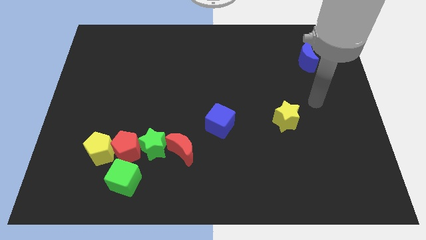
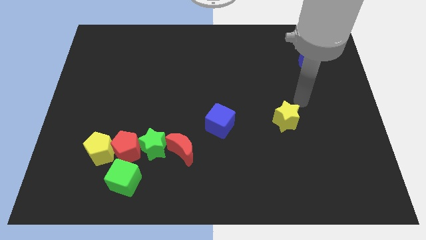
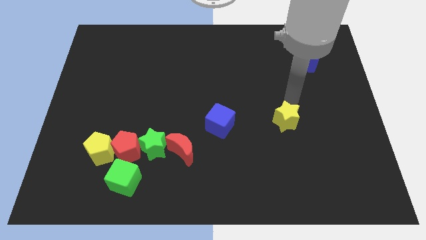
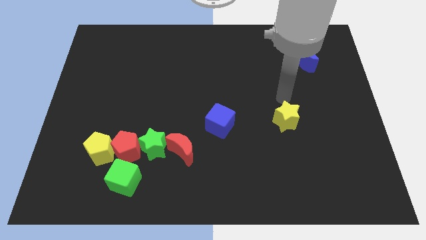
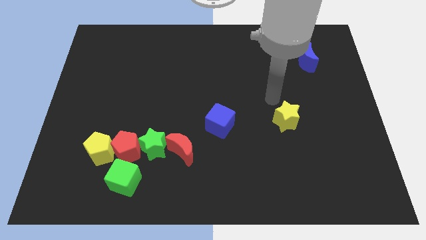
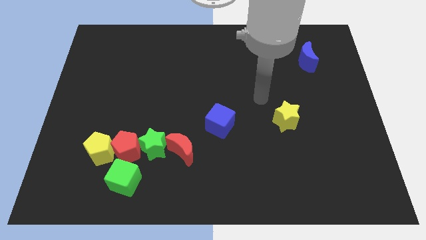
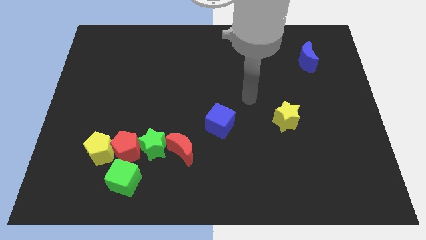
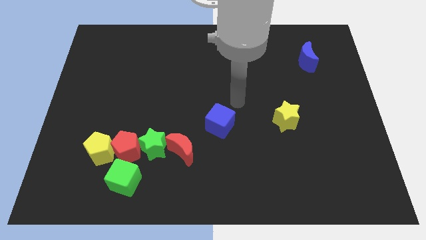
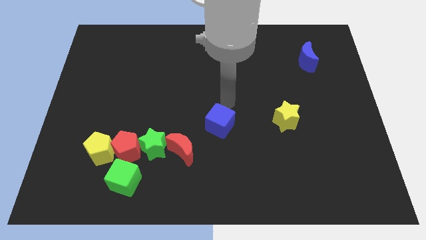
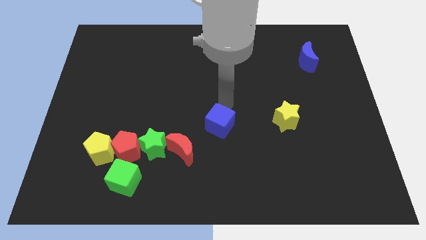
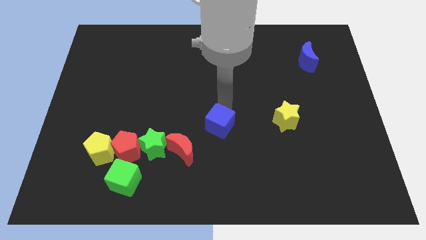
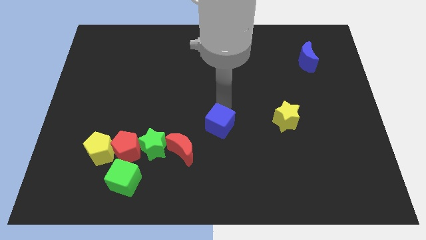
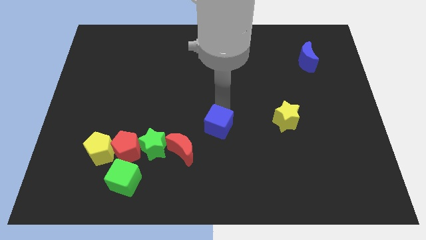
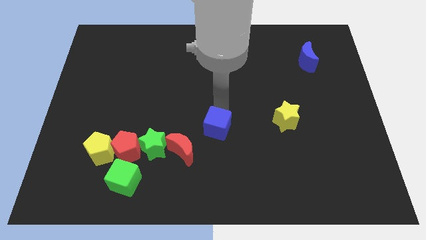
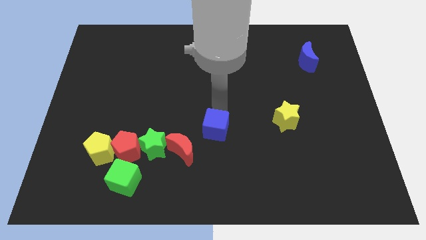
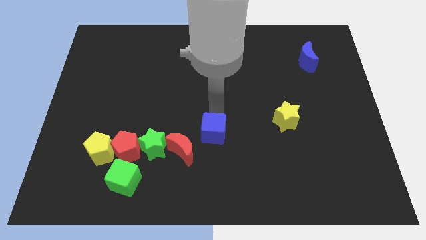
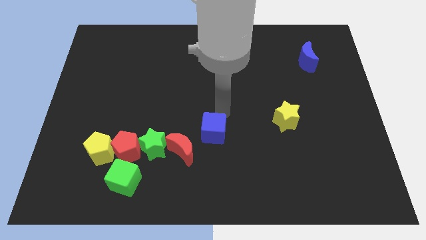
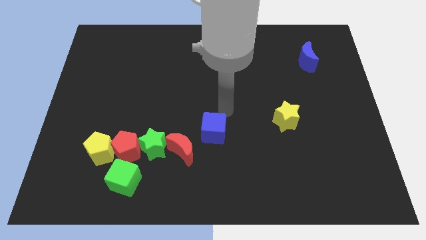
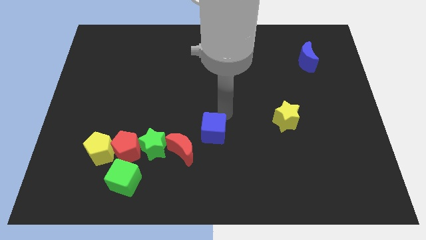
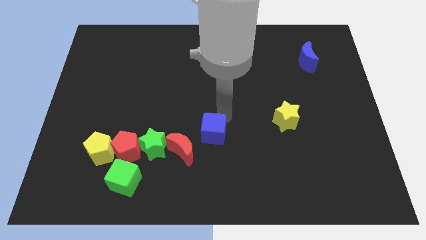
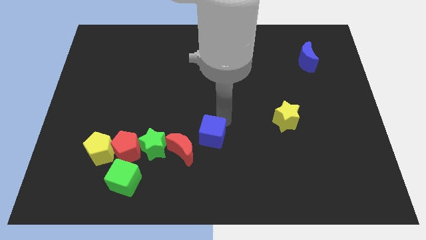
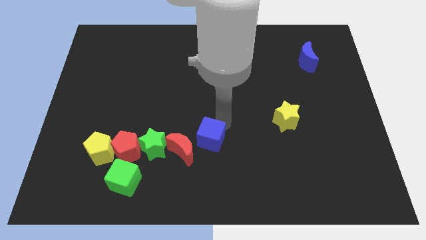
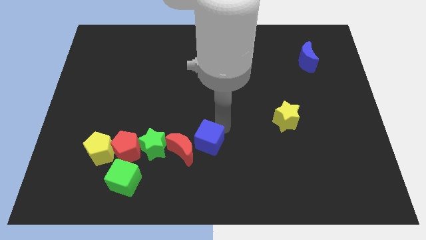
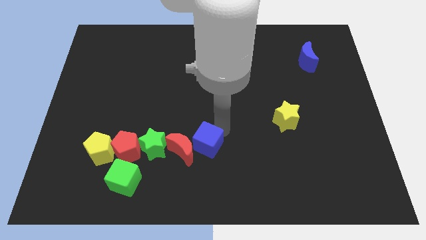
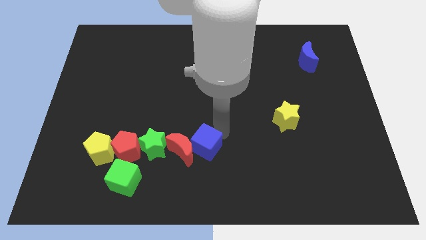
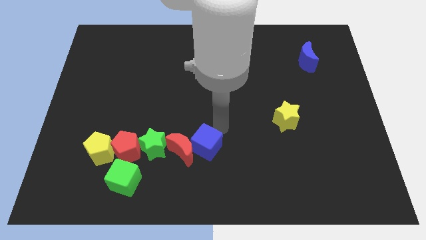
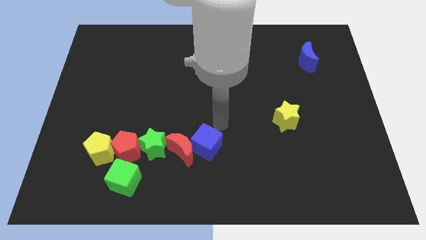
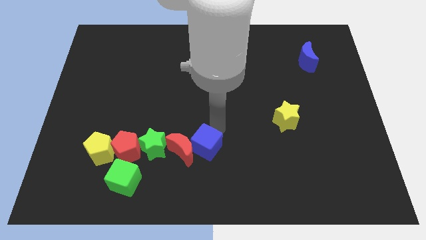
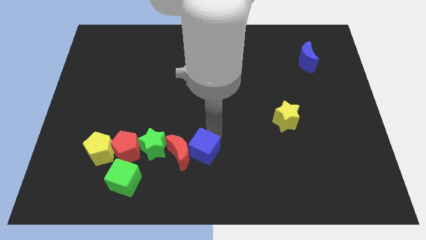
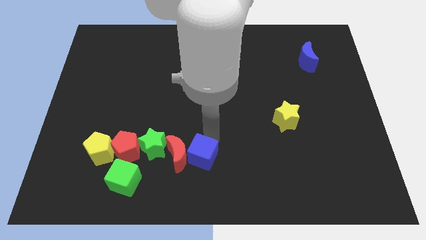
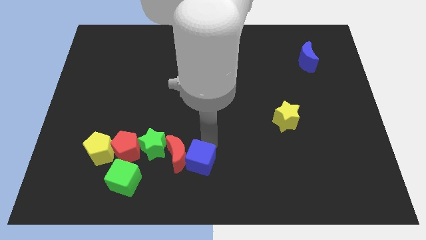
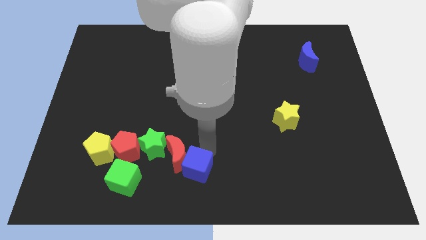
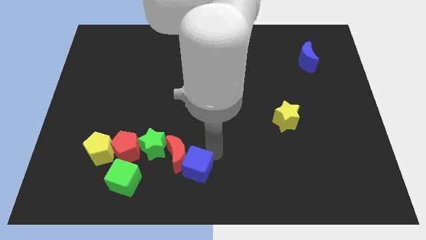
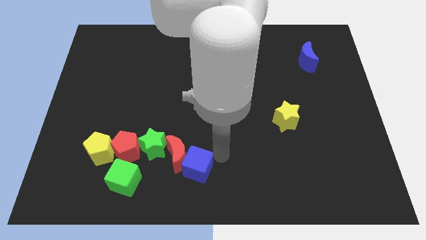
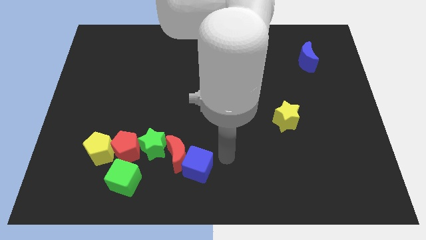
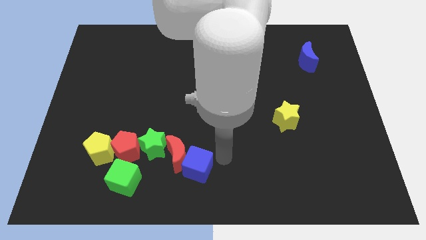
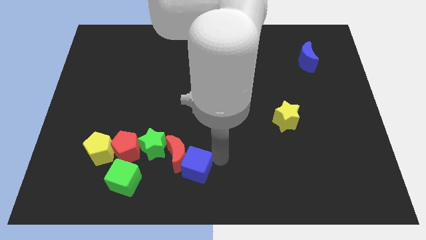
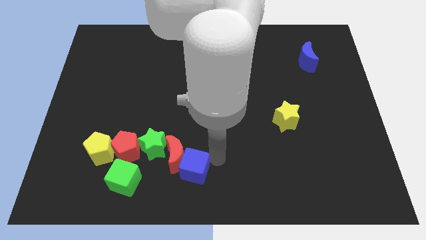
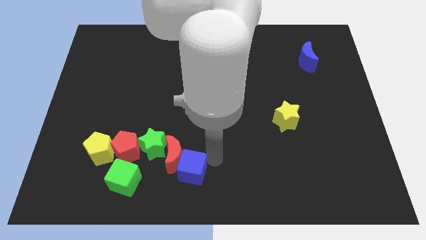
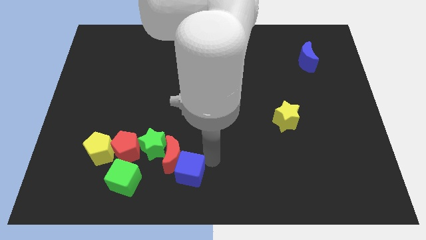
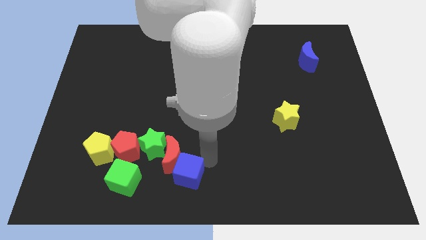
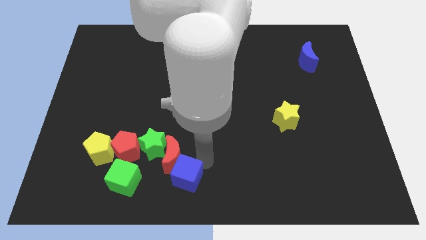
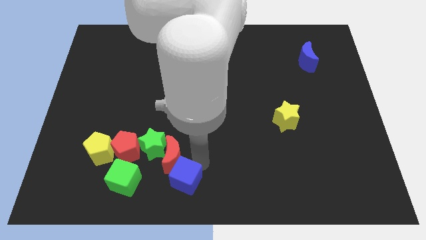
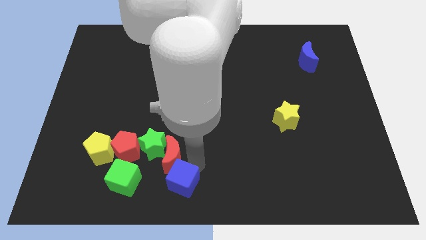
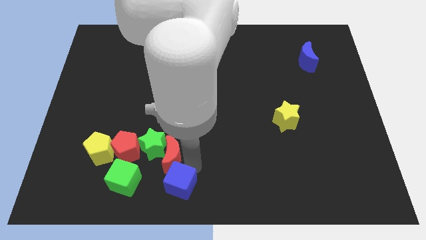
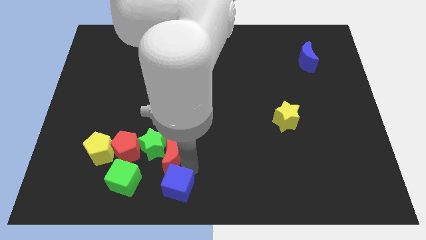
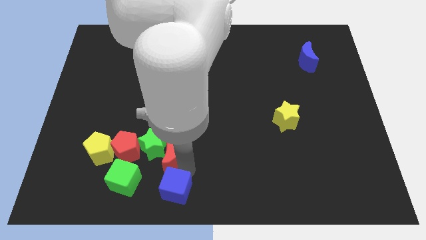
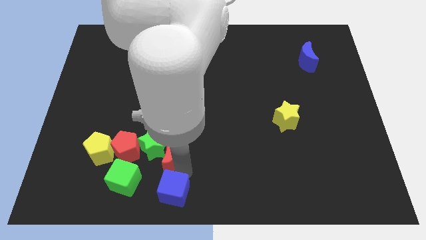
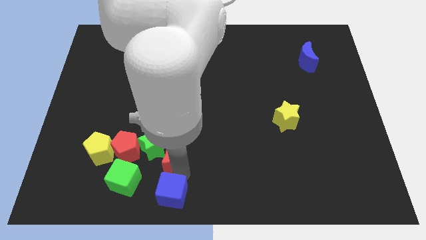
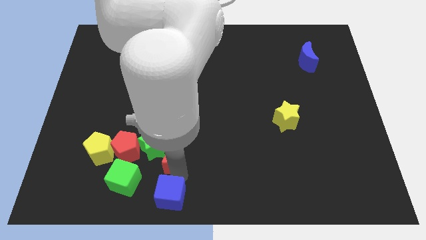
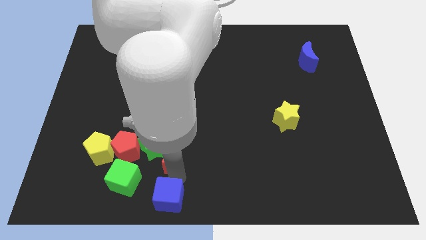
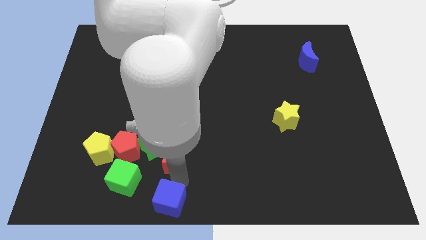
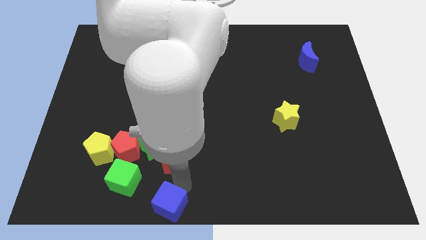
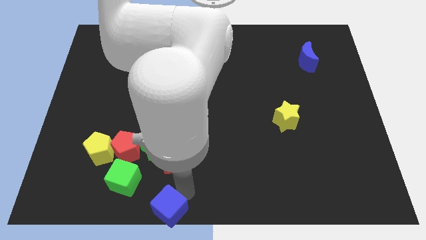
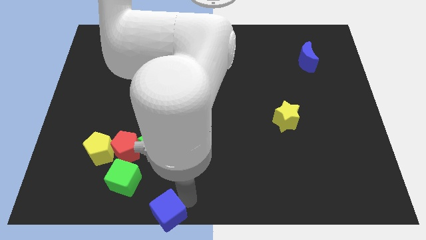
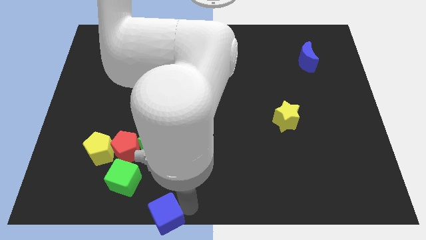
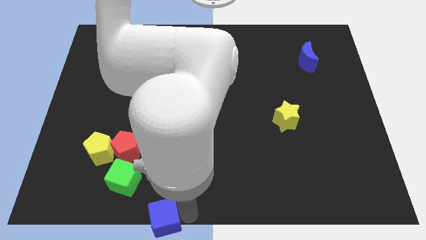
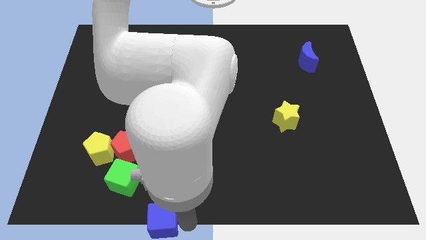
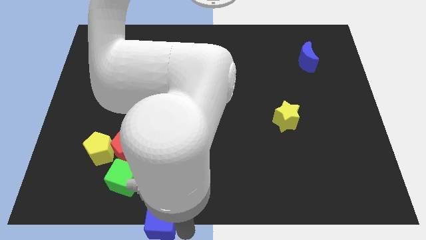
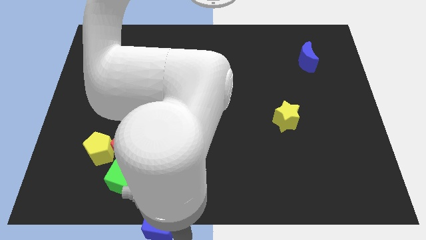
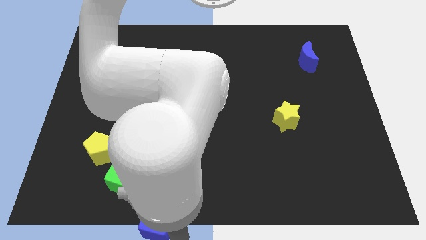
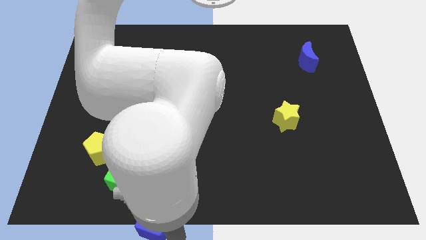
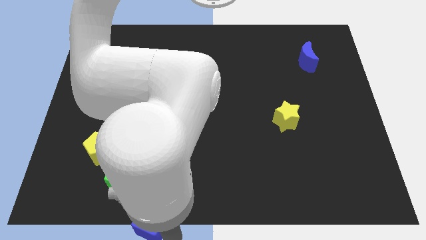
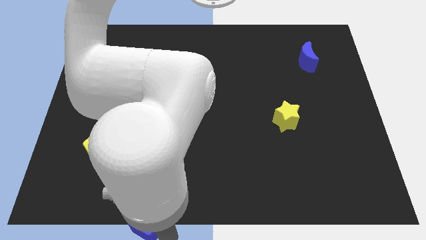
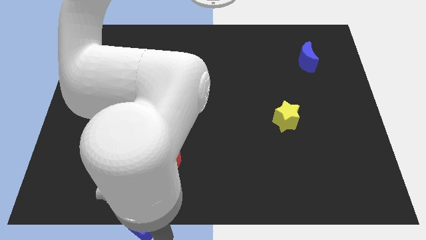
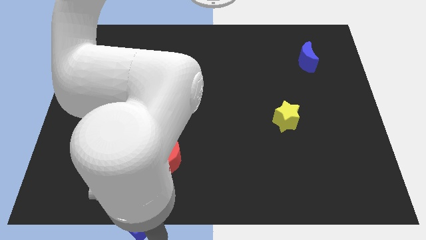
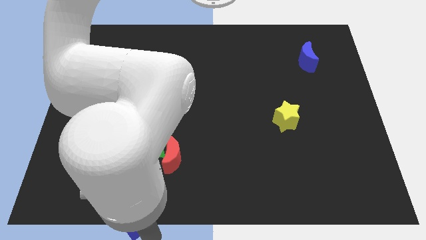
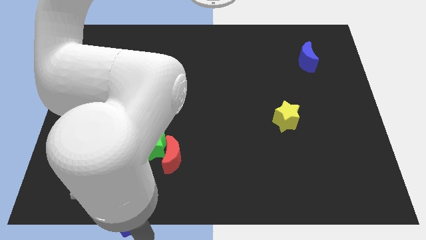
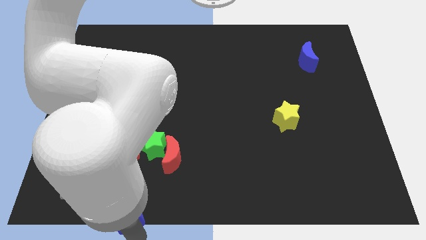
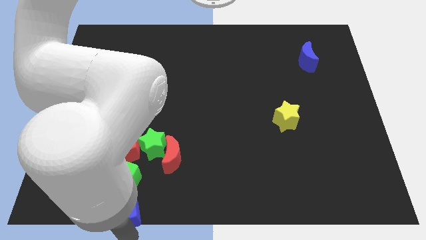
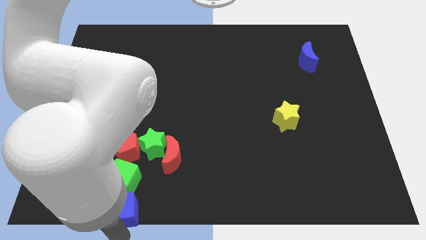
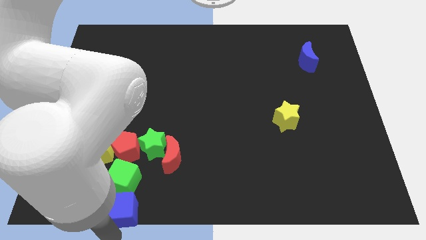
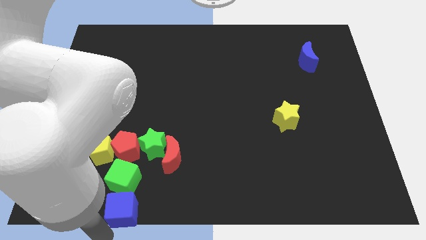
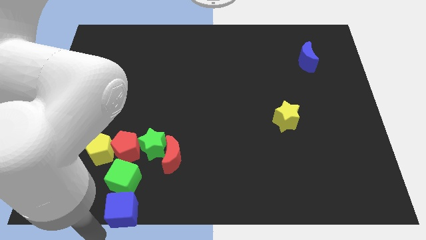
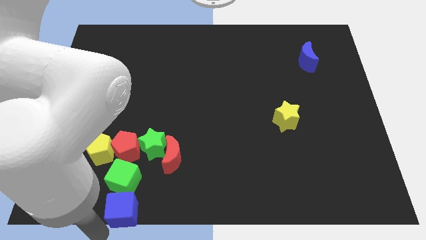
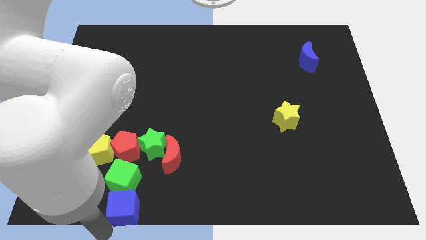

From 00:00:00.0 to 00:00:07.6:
push the blue cube next to the green cube
